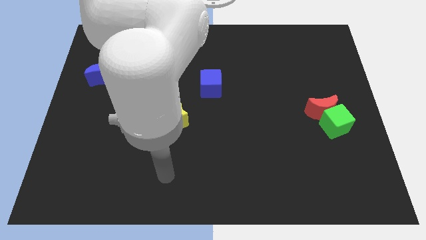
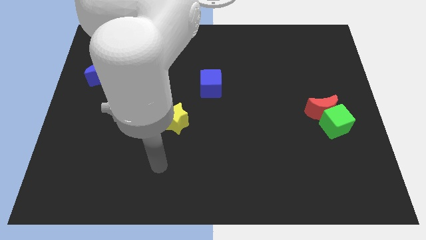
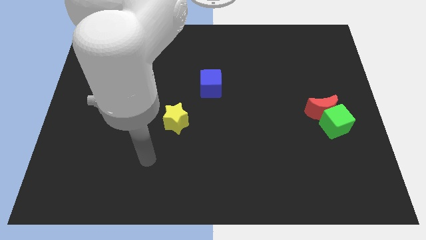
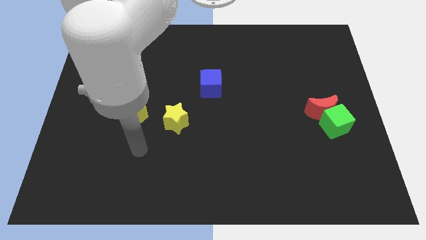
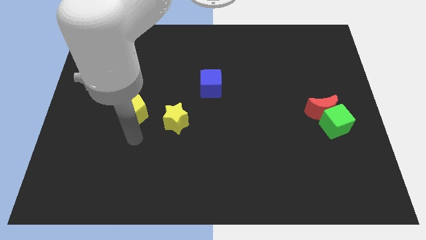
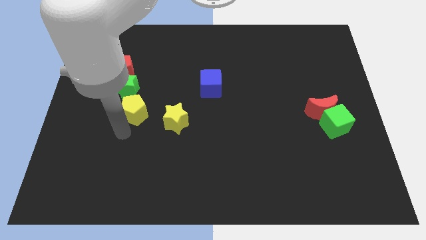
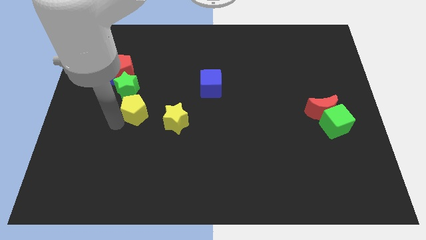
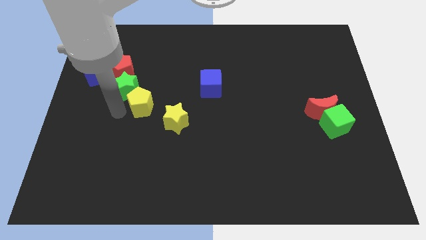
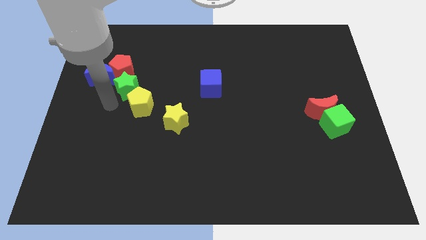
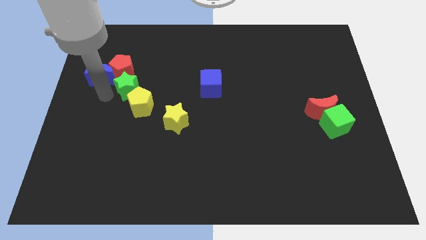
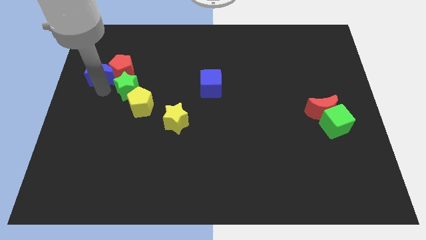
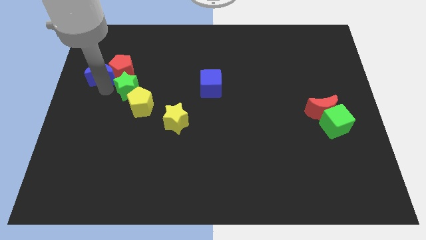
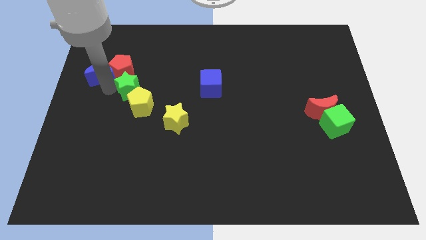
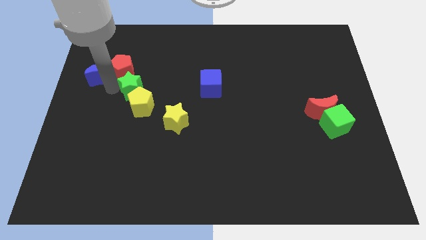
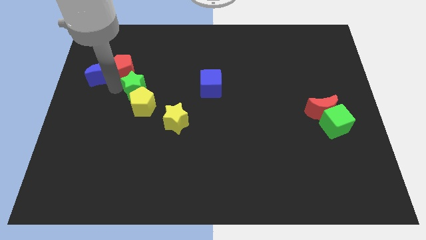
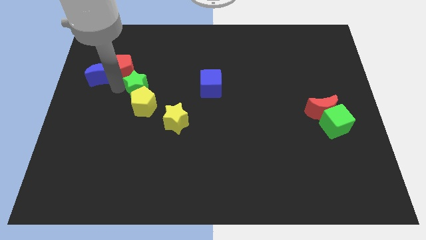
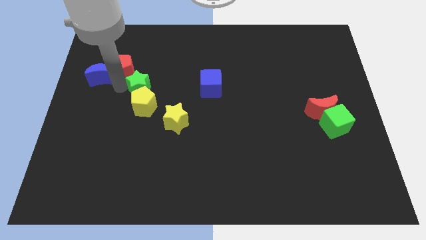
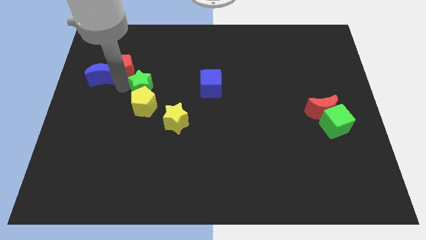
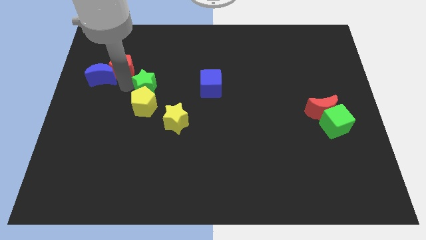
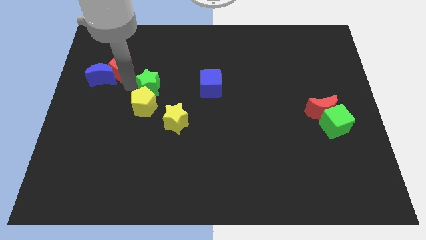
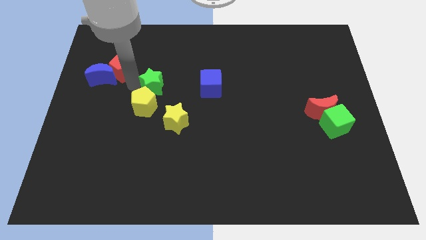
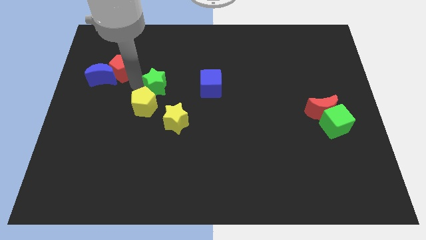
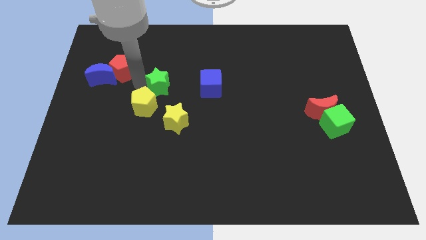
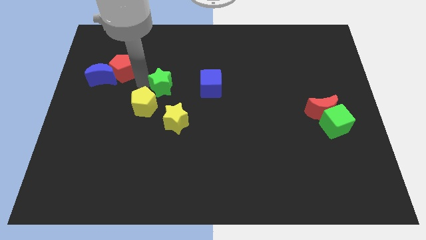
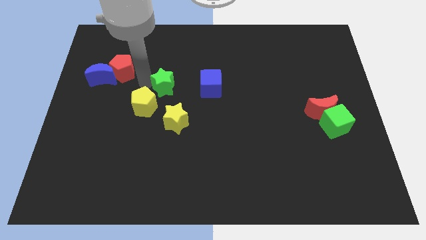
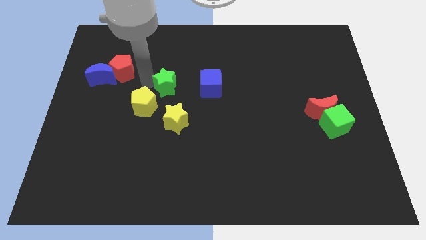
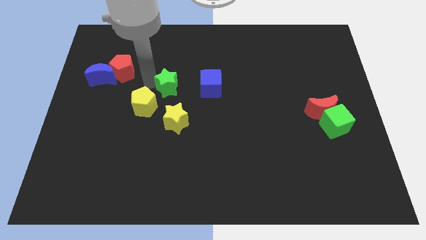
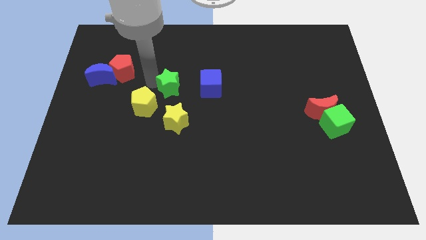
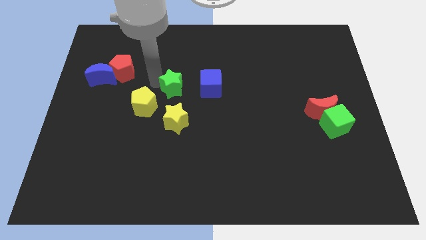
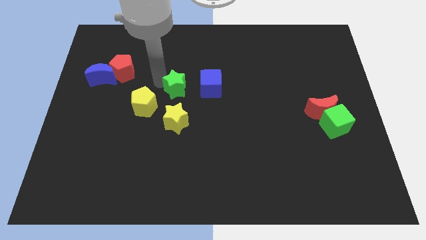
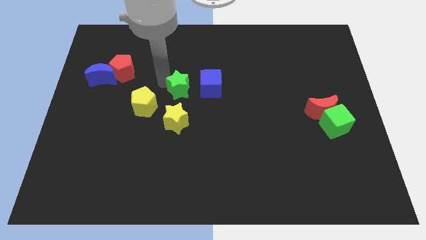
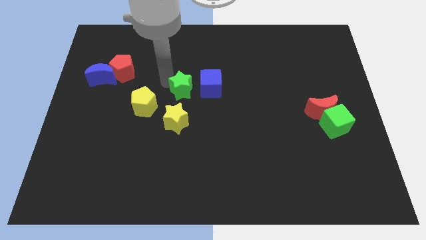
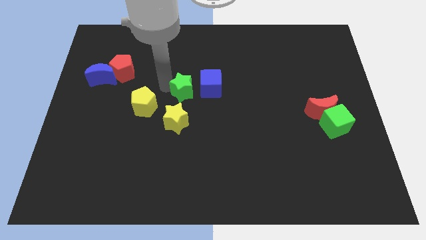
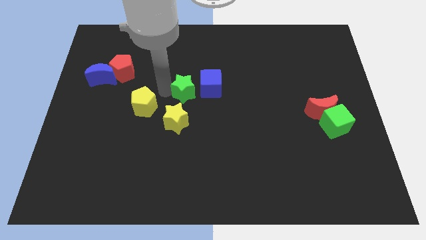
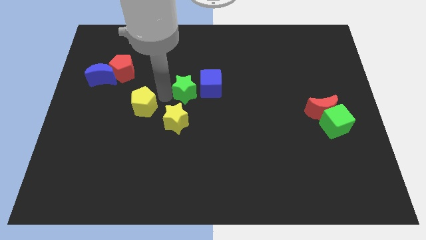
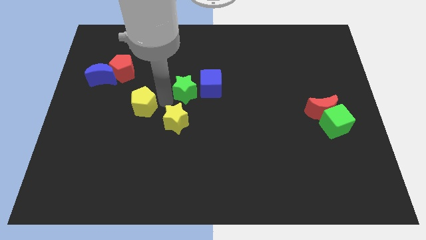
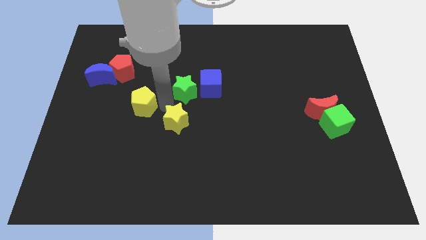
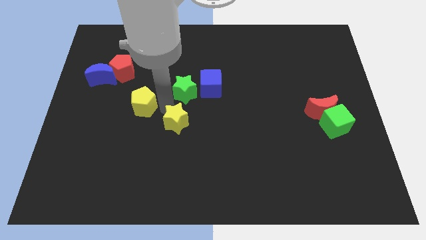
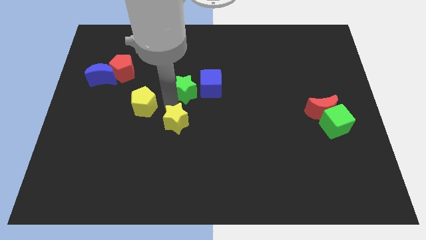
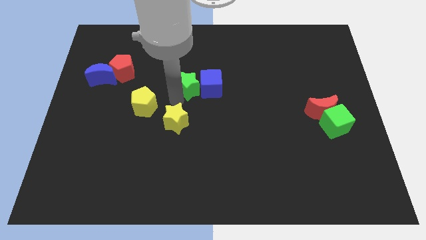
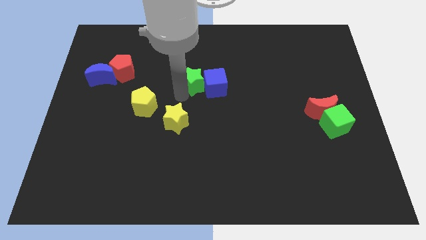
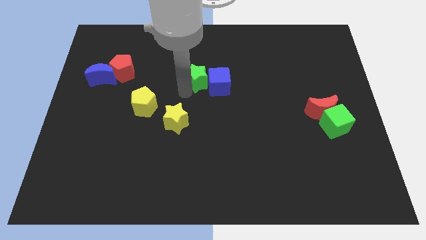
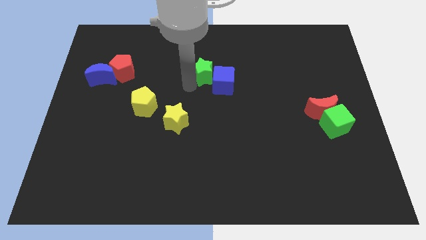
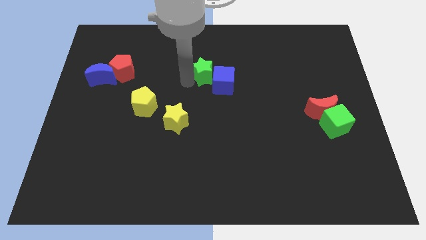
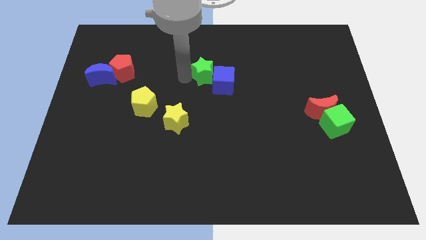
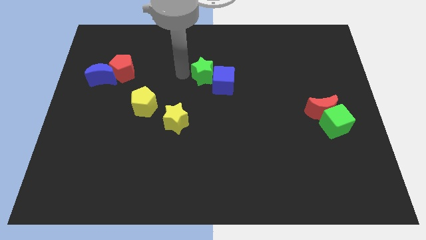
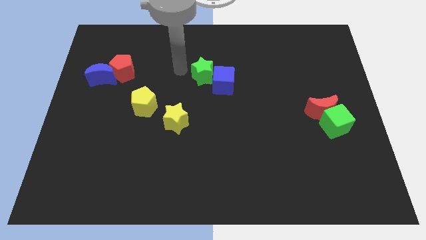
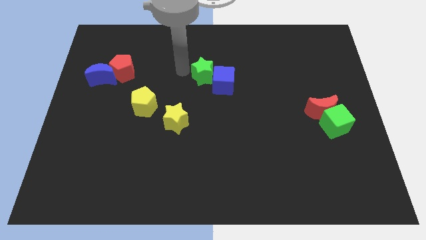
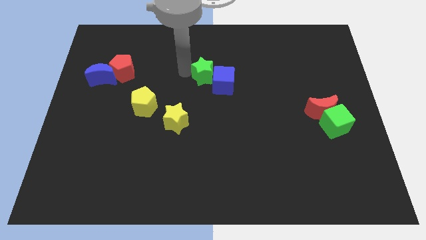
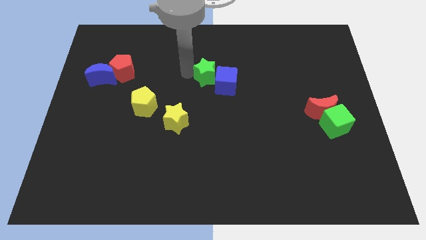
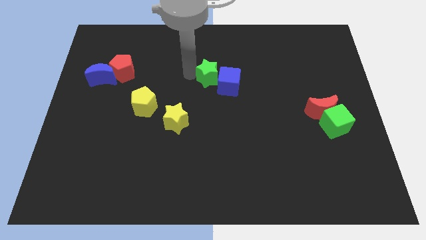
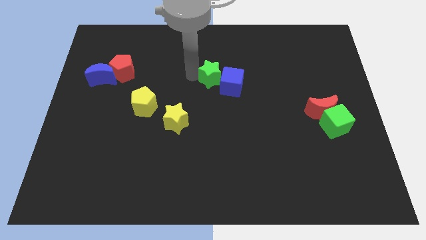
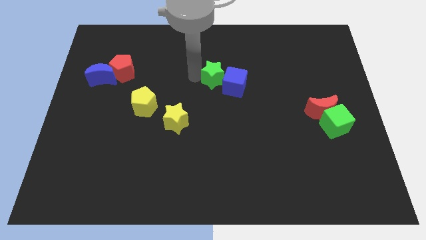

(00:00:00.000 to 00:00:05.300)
push the green star right

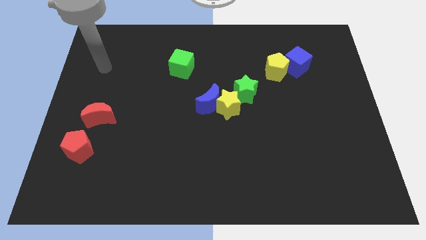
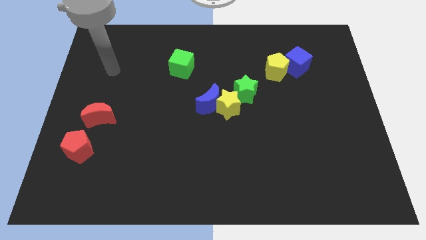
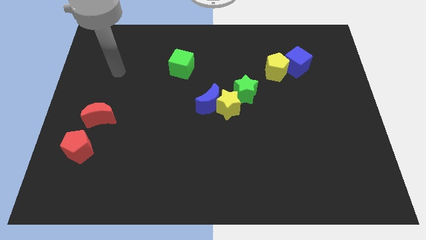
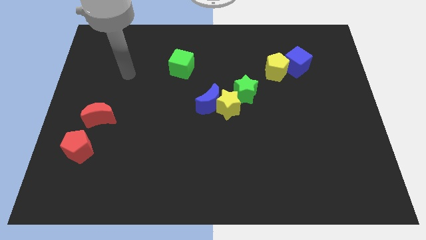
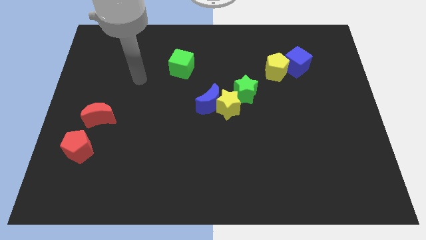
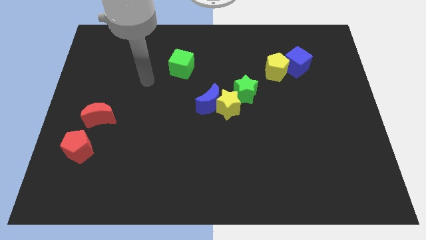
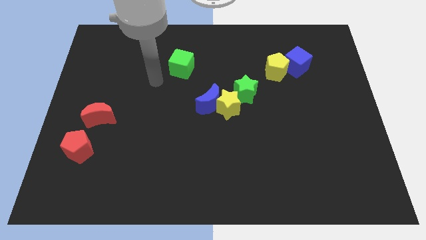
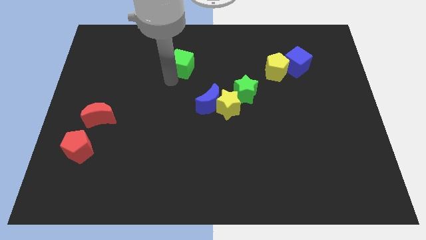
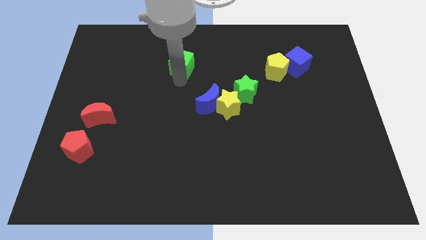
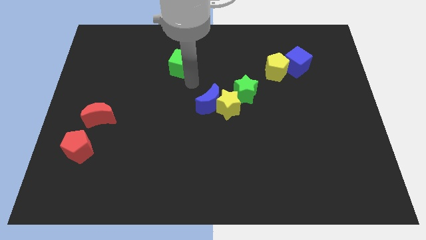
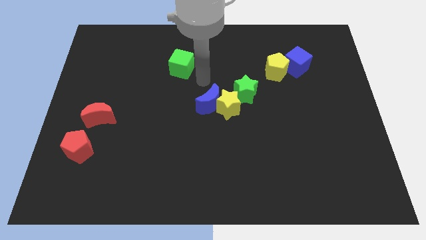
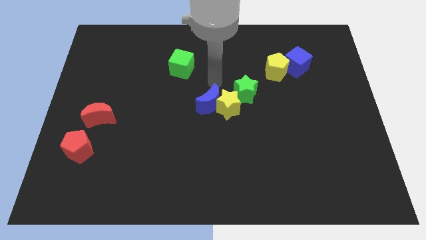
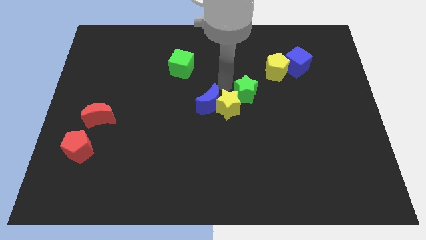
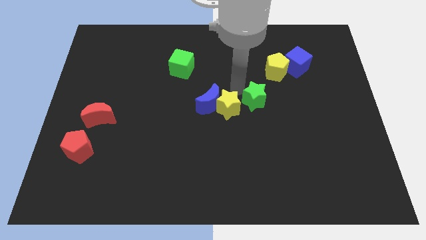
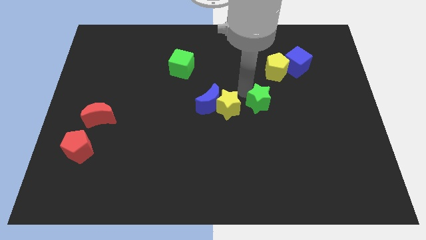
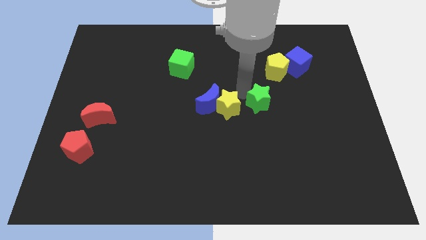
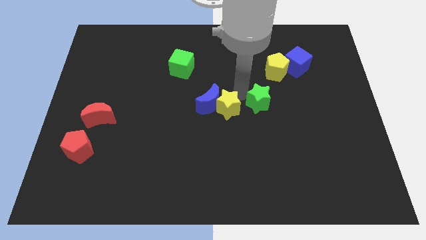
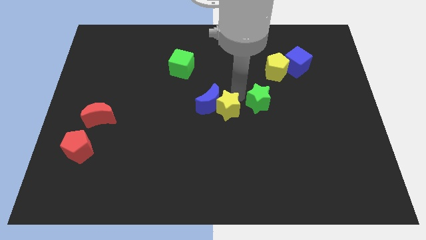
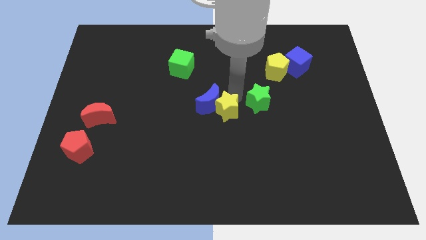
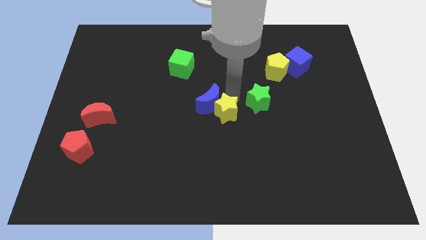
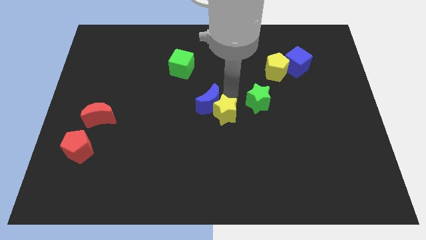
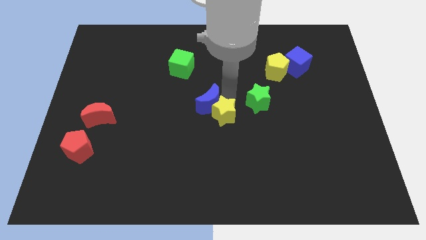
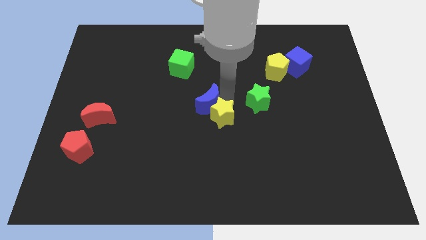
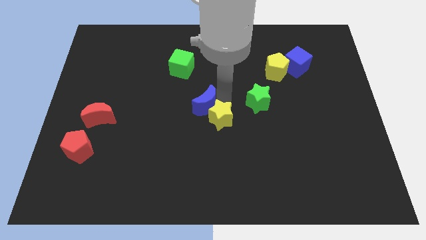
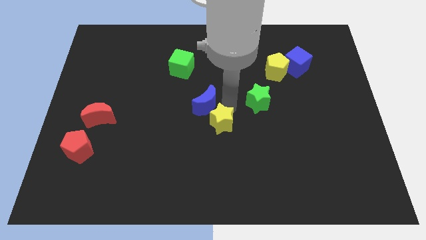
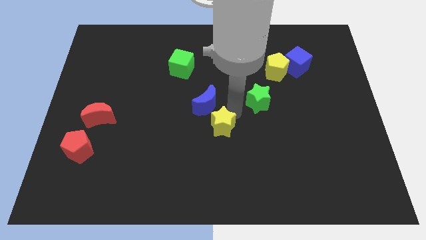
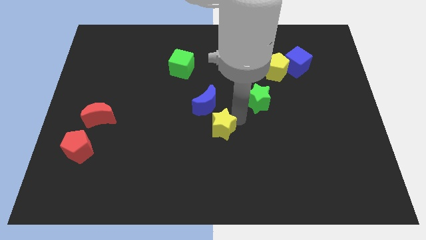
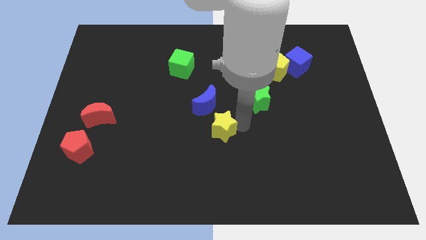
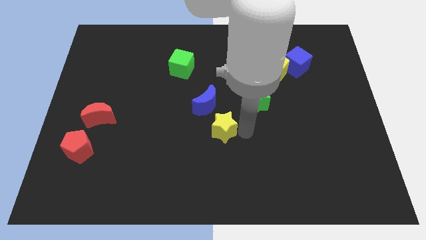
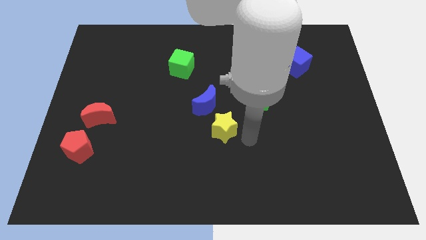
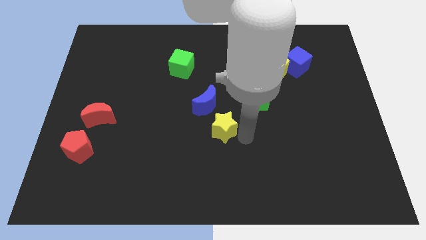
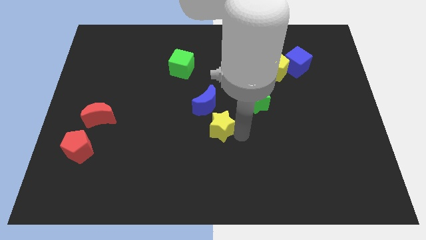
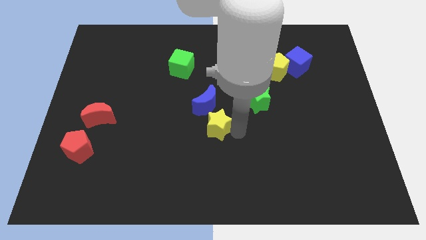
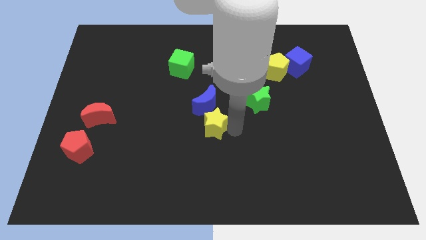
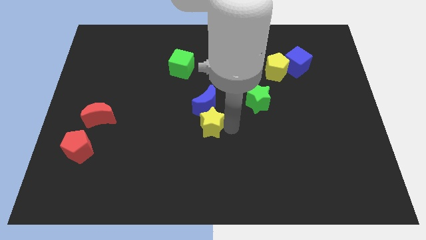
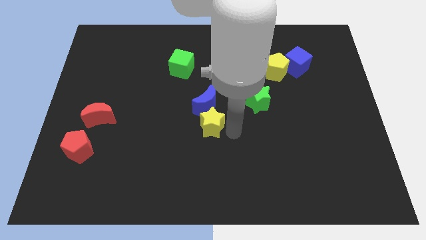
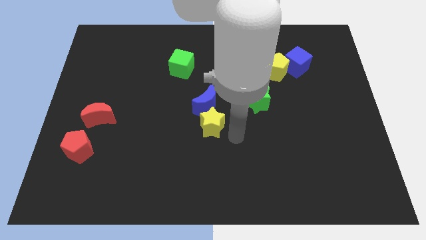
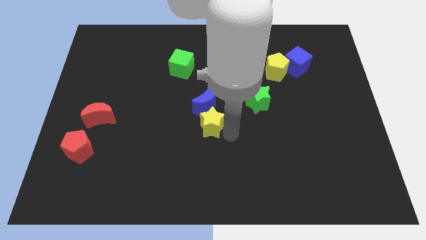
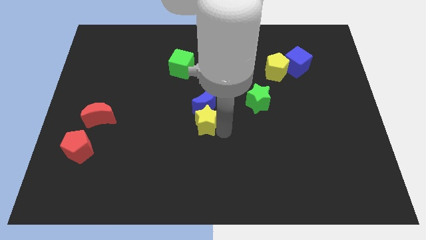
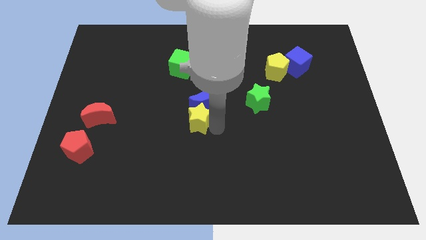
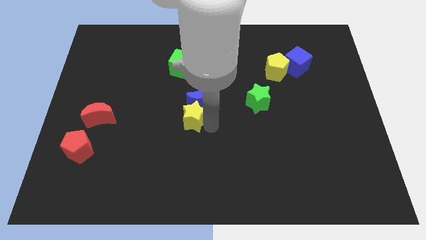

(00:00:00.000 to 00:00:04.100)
push the yellow star slightly to the left
